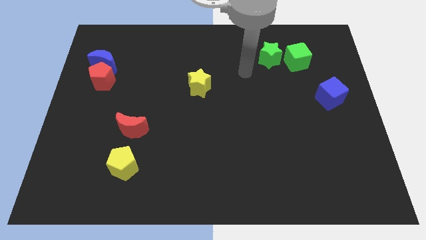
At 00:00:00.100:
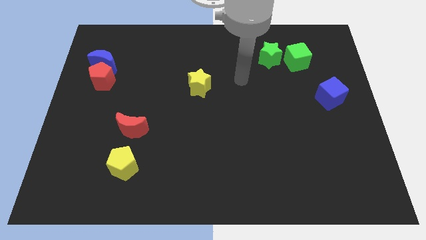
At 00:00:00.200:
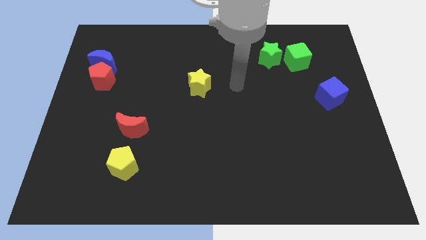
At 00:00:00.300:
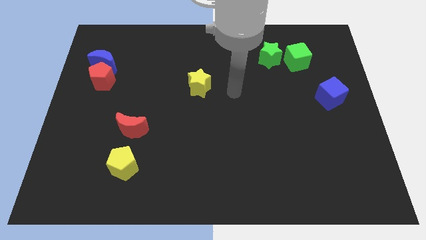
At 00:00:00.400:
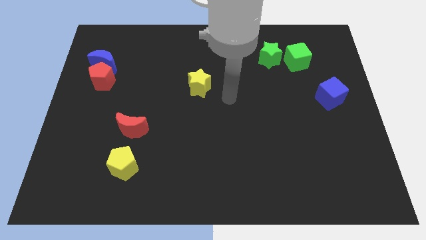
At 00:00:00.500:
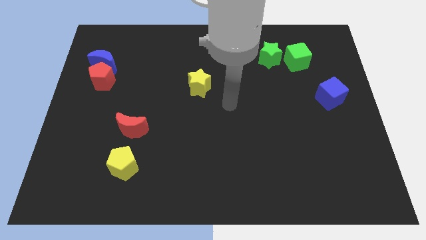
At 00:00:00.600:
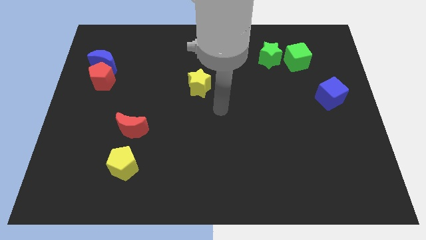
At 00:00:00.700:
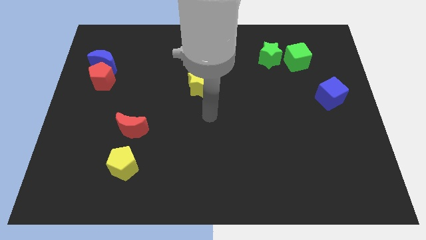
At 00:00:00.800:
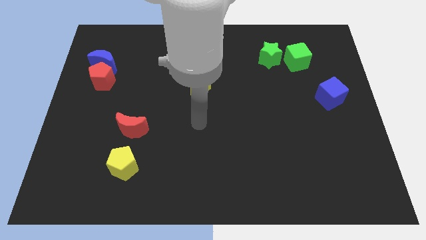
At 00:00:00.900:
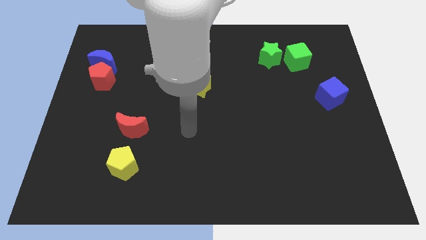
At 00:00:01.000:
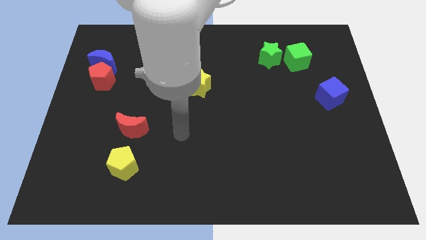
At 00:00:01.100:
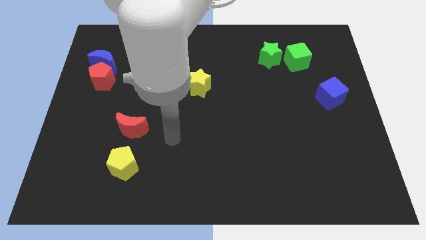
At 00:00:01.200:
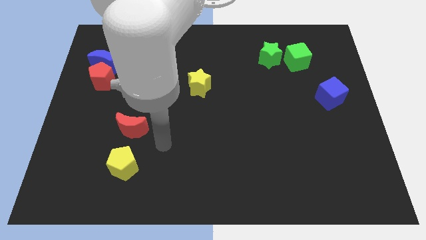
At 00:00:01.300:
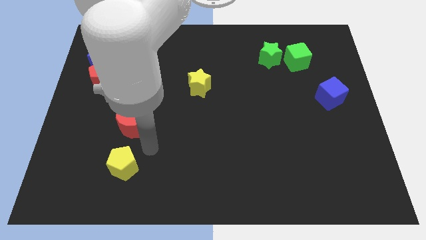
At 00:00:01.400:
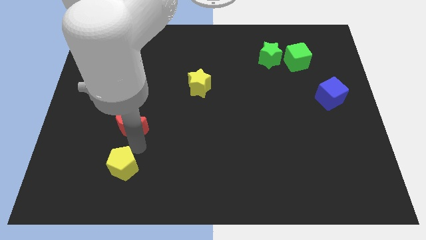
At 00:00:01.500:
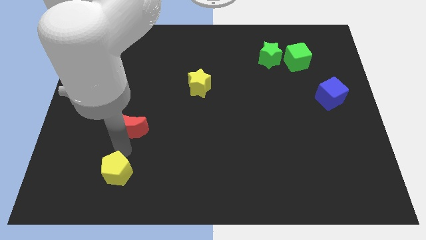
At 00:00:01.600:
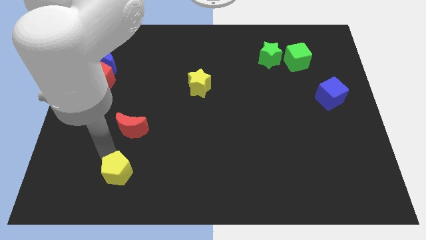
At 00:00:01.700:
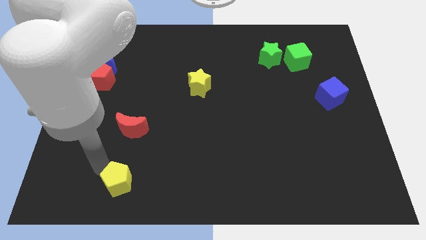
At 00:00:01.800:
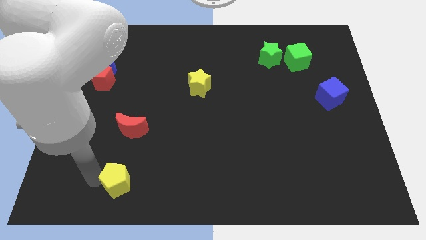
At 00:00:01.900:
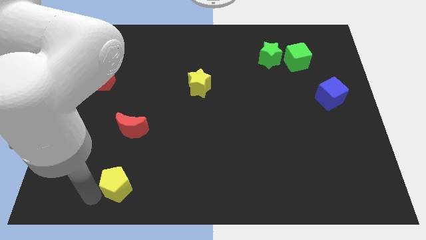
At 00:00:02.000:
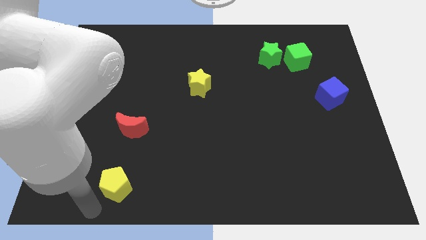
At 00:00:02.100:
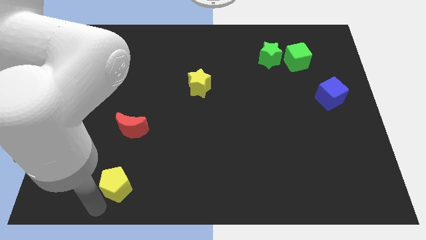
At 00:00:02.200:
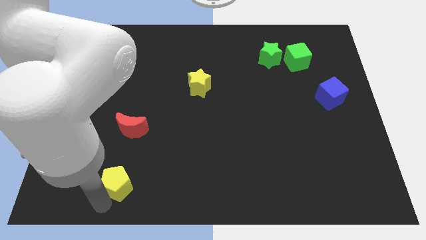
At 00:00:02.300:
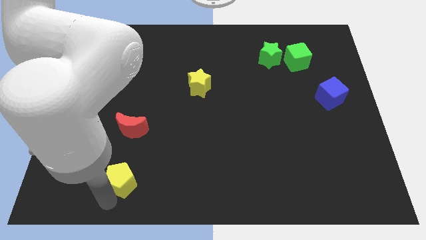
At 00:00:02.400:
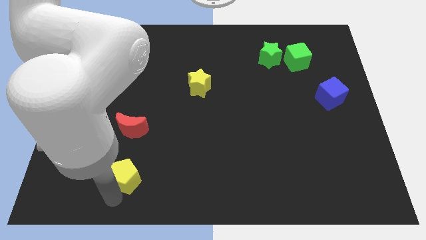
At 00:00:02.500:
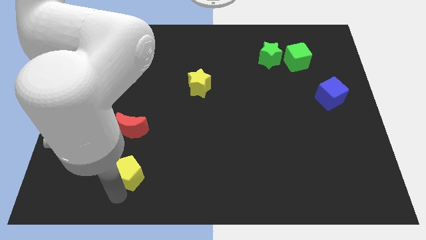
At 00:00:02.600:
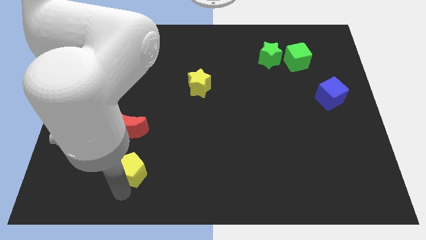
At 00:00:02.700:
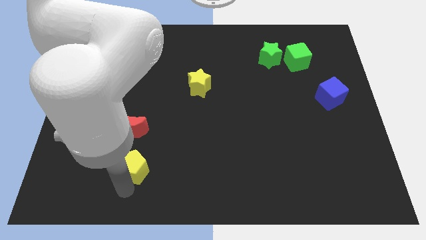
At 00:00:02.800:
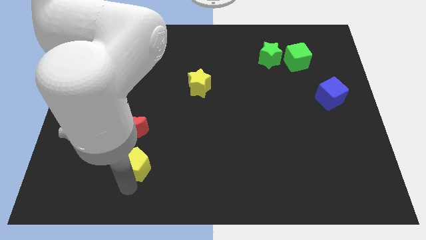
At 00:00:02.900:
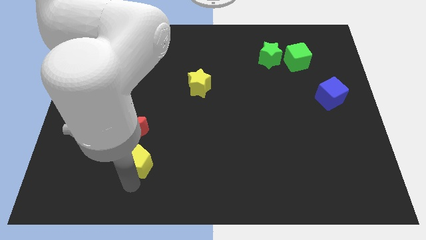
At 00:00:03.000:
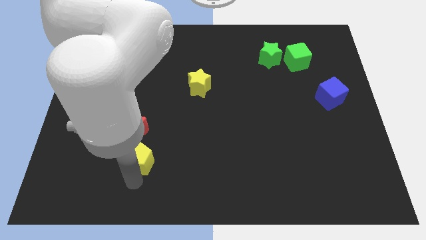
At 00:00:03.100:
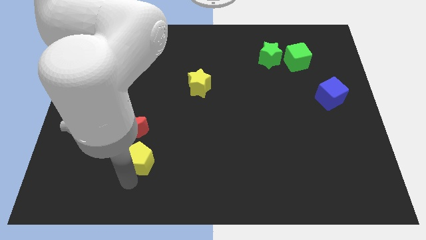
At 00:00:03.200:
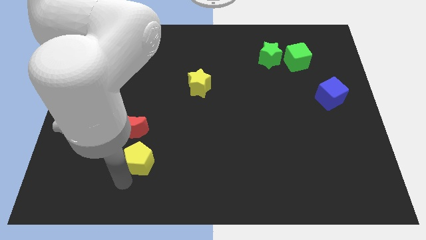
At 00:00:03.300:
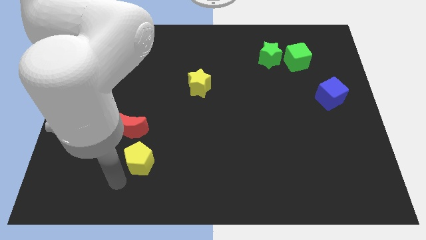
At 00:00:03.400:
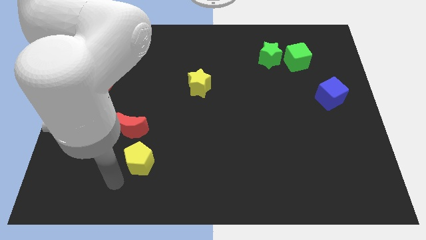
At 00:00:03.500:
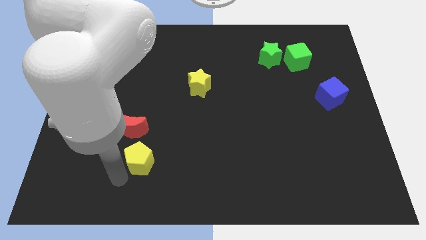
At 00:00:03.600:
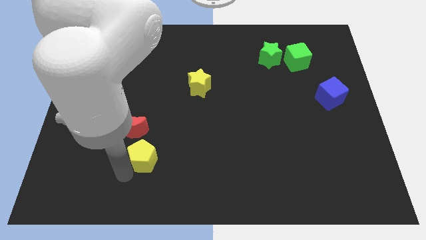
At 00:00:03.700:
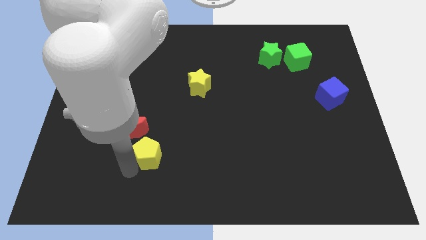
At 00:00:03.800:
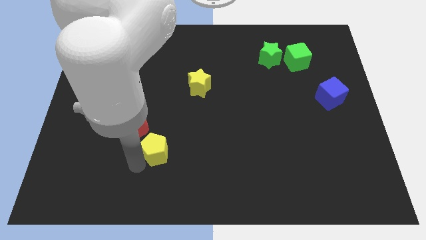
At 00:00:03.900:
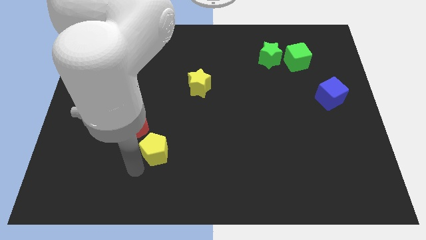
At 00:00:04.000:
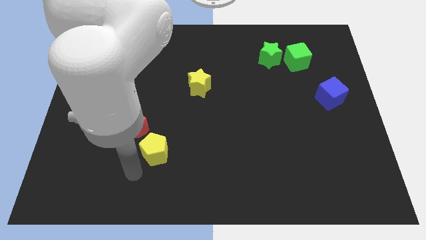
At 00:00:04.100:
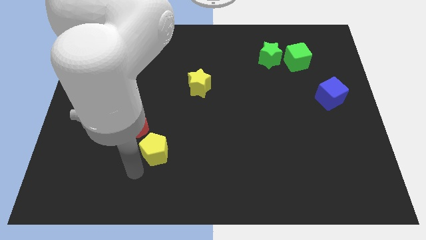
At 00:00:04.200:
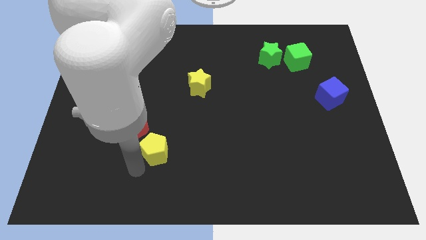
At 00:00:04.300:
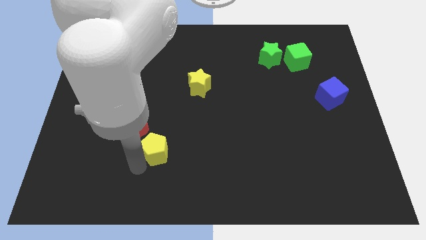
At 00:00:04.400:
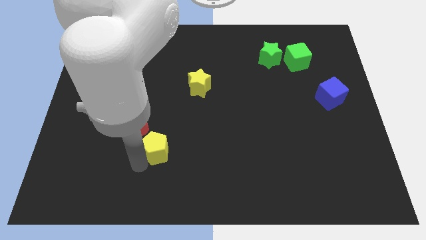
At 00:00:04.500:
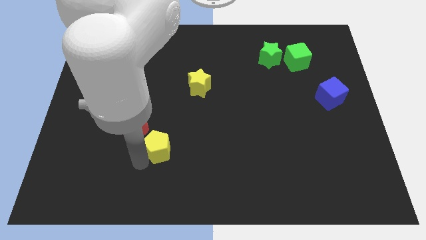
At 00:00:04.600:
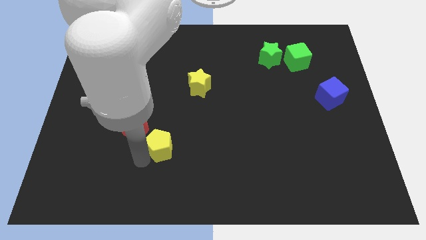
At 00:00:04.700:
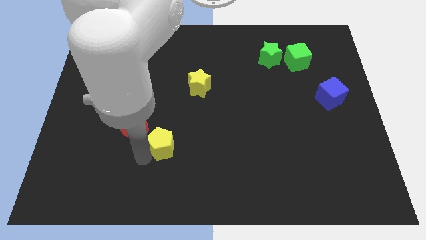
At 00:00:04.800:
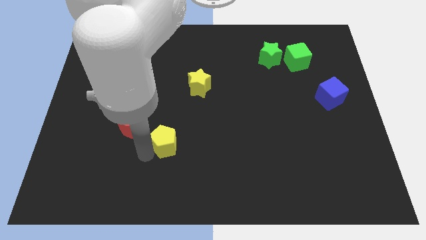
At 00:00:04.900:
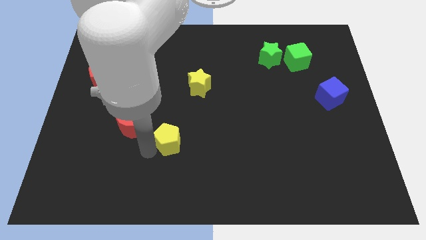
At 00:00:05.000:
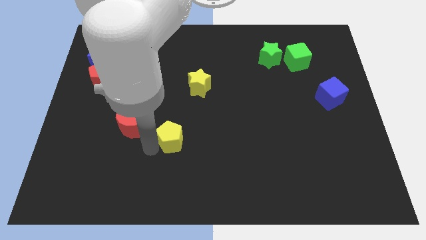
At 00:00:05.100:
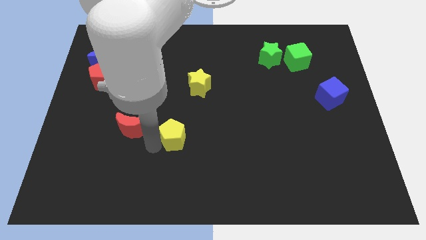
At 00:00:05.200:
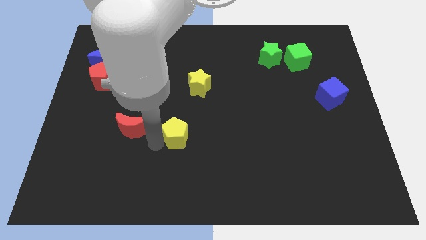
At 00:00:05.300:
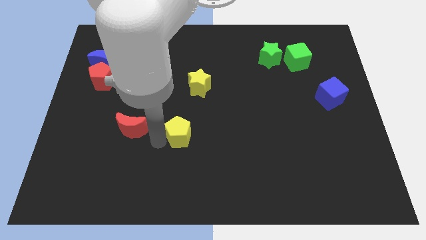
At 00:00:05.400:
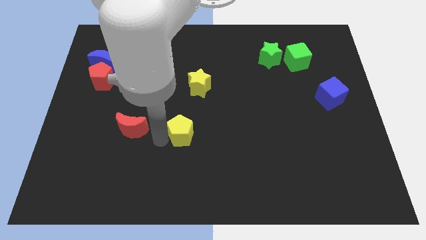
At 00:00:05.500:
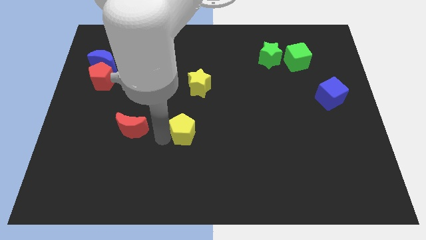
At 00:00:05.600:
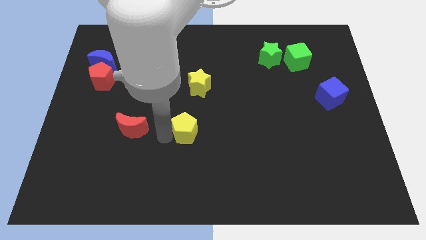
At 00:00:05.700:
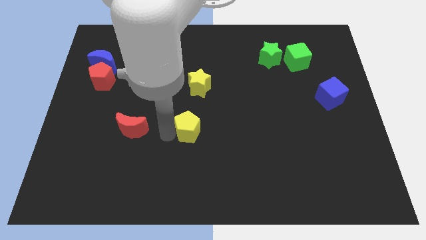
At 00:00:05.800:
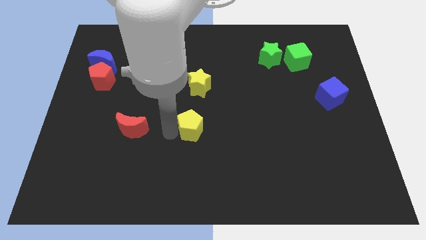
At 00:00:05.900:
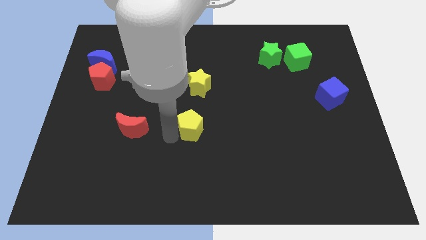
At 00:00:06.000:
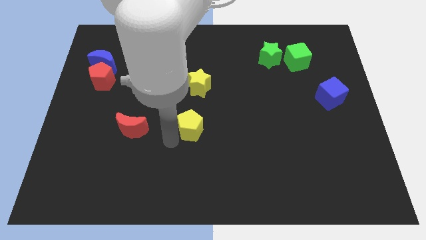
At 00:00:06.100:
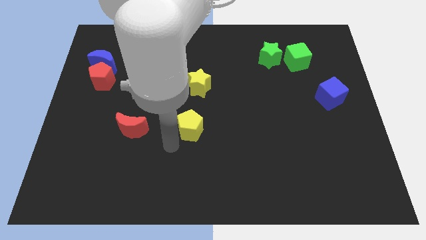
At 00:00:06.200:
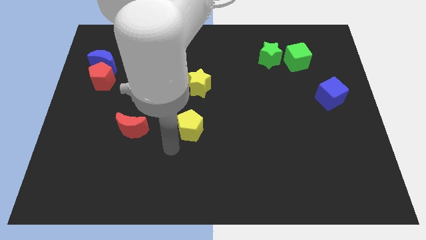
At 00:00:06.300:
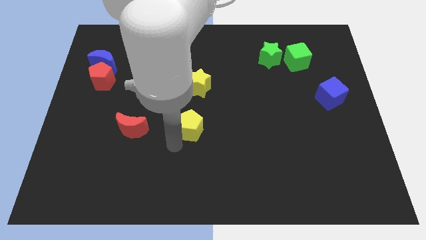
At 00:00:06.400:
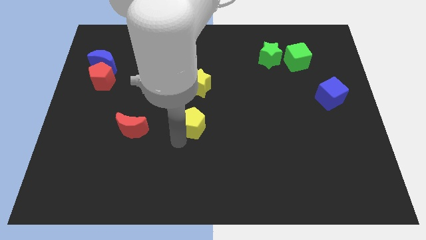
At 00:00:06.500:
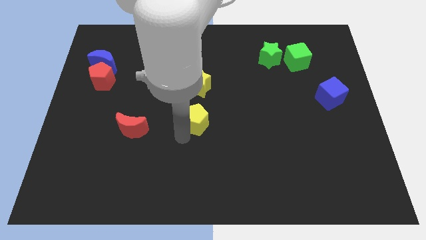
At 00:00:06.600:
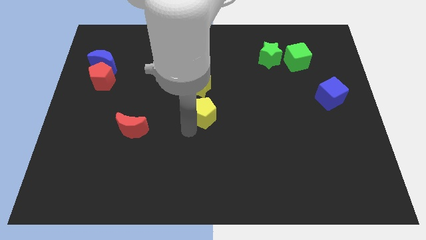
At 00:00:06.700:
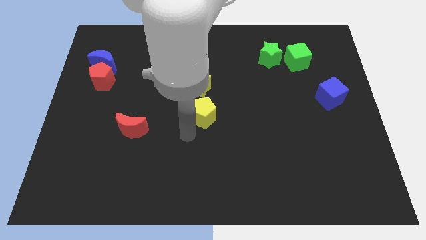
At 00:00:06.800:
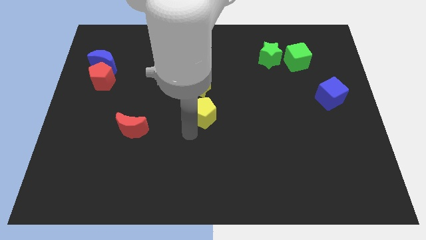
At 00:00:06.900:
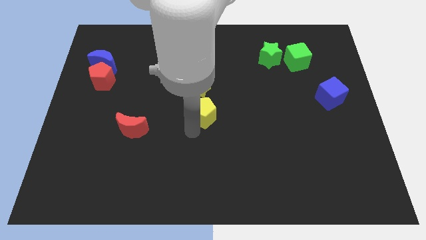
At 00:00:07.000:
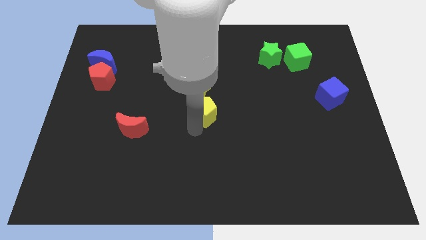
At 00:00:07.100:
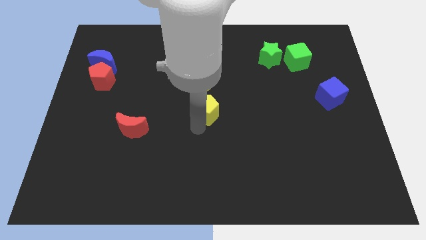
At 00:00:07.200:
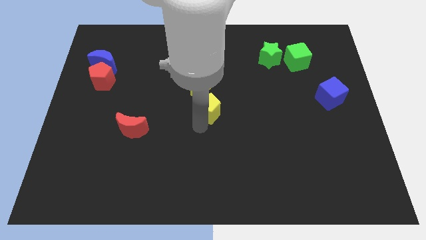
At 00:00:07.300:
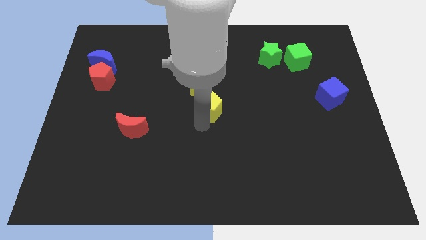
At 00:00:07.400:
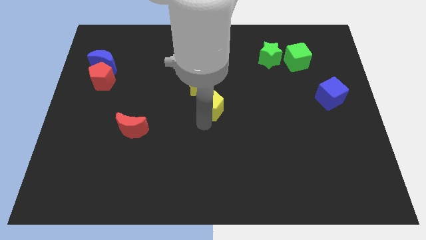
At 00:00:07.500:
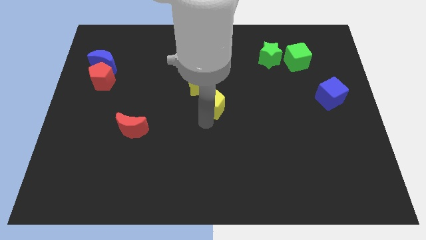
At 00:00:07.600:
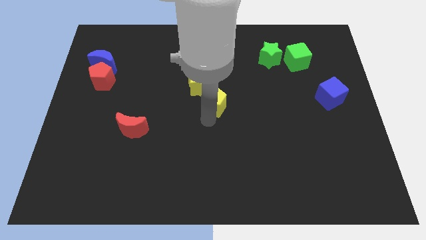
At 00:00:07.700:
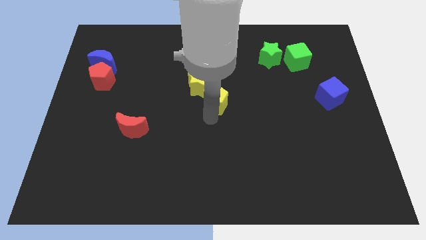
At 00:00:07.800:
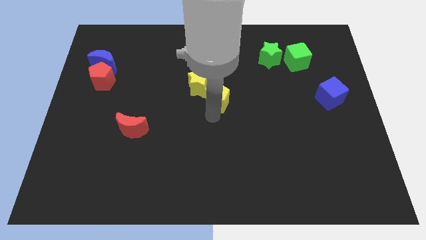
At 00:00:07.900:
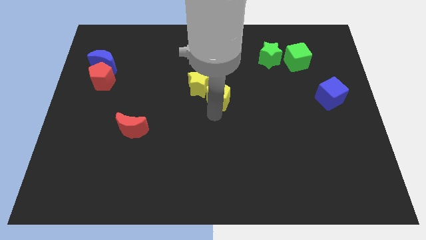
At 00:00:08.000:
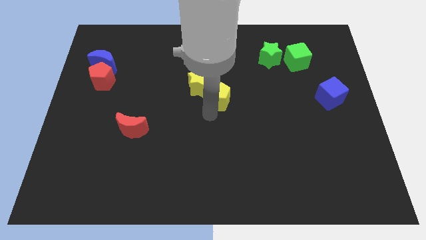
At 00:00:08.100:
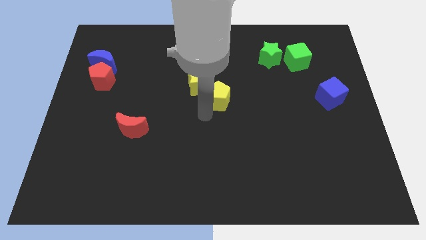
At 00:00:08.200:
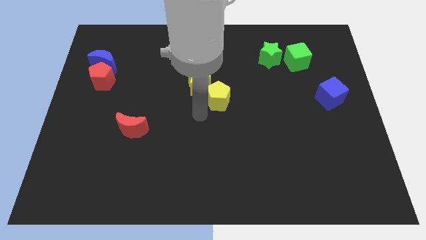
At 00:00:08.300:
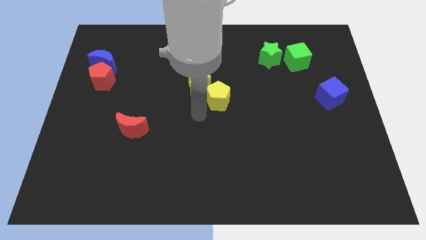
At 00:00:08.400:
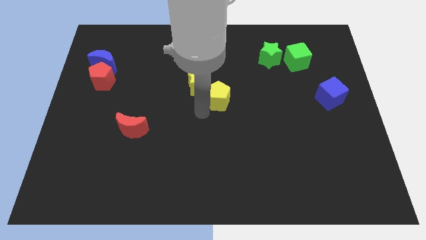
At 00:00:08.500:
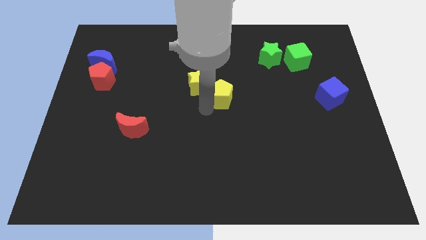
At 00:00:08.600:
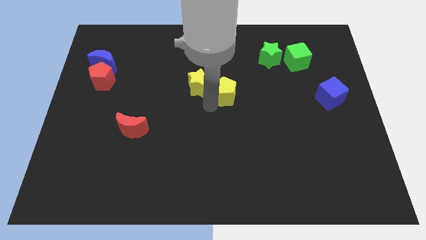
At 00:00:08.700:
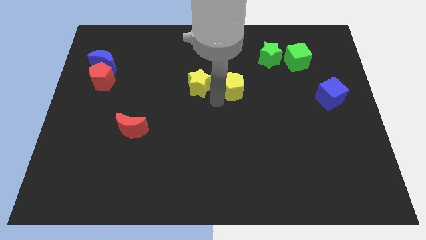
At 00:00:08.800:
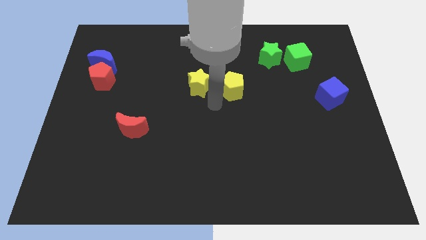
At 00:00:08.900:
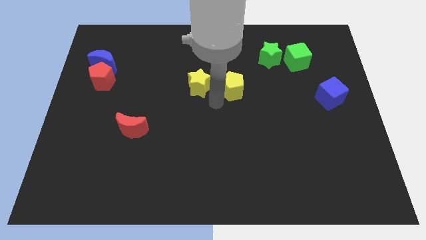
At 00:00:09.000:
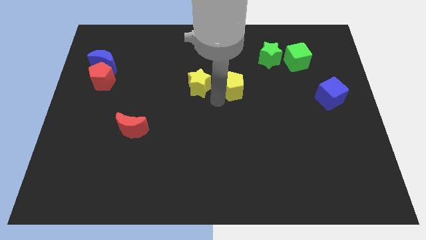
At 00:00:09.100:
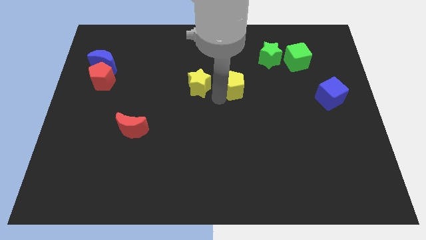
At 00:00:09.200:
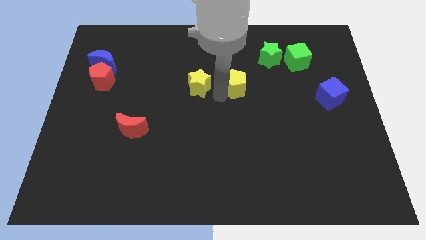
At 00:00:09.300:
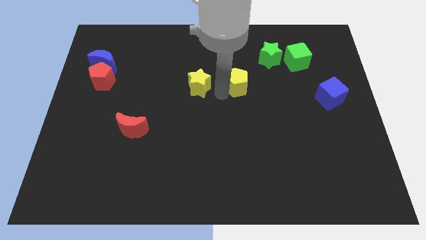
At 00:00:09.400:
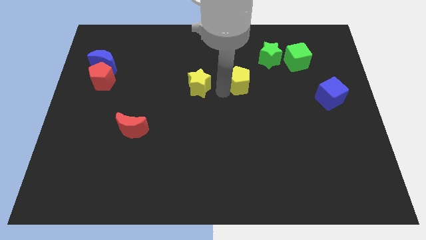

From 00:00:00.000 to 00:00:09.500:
put the yellow pentagon to the bottom left of the green star
